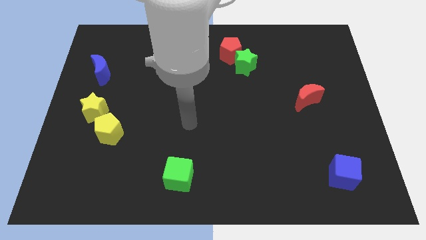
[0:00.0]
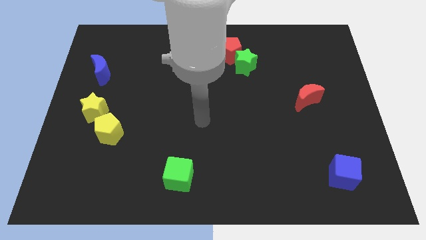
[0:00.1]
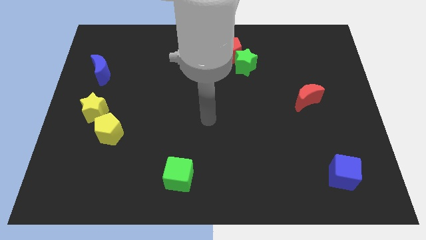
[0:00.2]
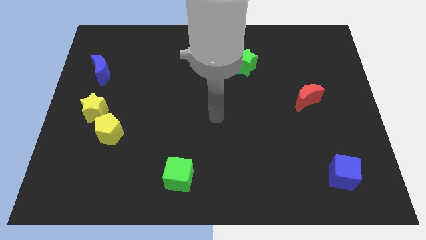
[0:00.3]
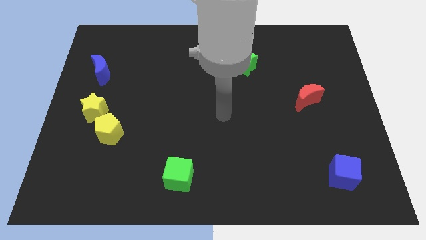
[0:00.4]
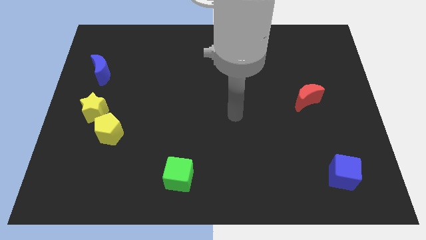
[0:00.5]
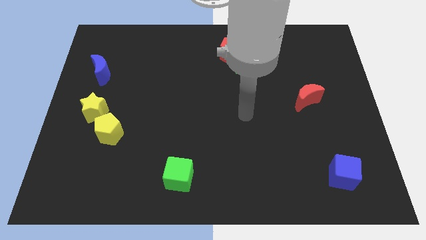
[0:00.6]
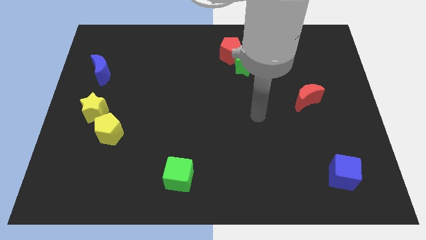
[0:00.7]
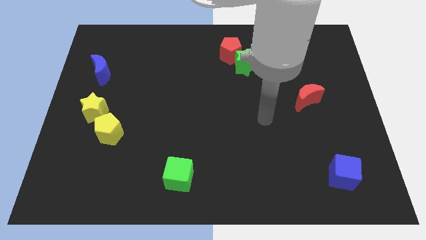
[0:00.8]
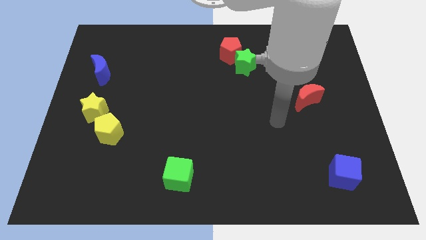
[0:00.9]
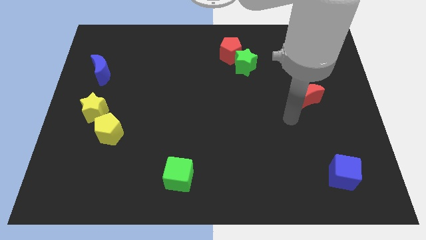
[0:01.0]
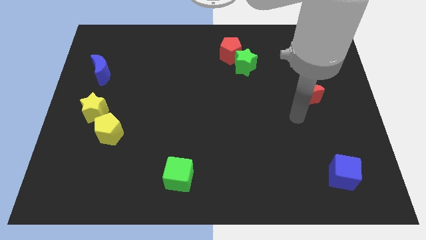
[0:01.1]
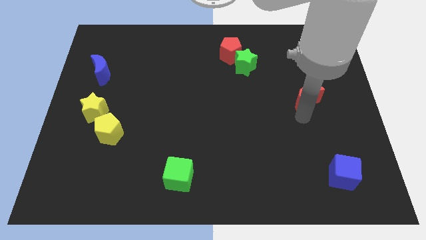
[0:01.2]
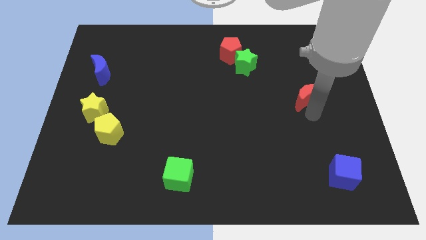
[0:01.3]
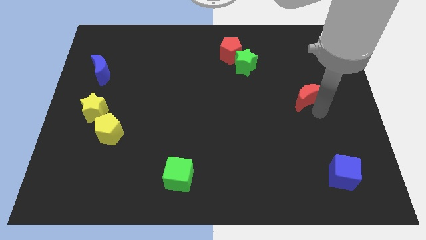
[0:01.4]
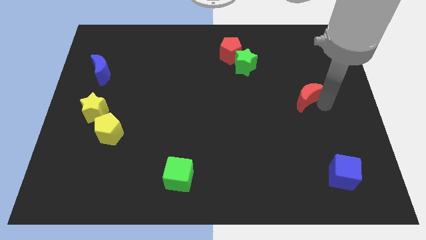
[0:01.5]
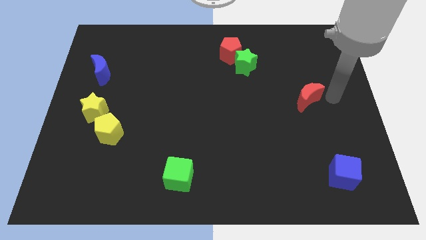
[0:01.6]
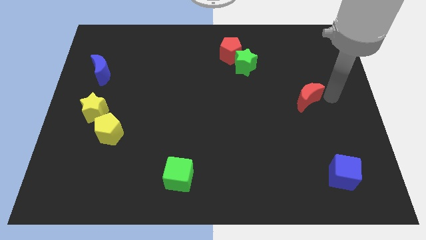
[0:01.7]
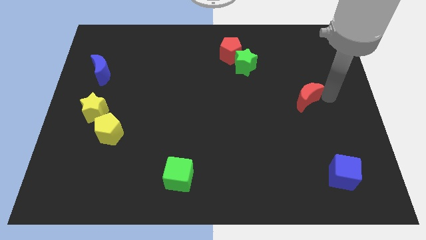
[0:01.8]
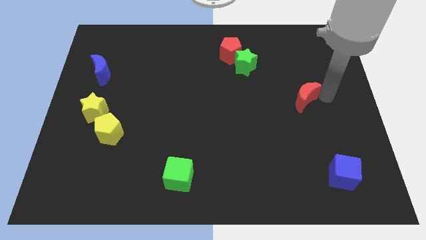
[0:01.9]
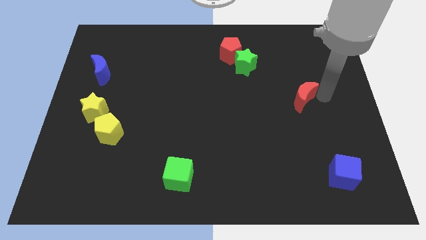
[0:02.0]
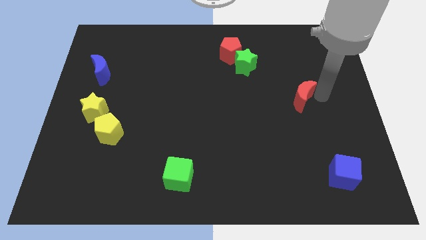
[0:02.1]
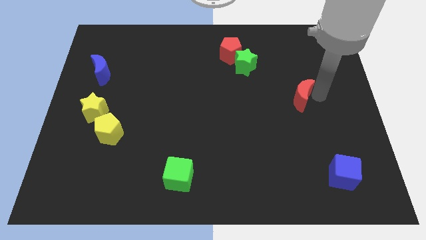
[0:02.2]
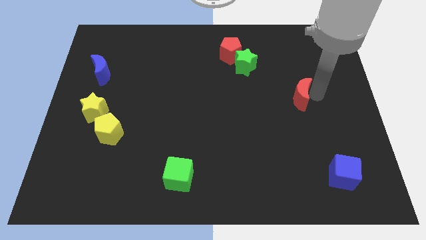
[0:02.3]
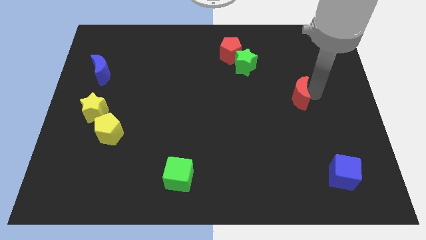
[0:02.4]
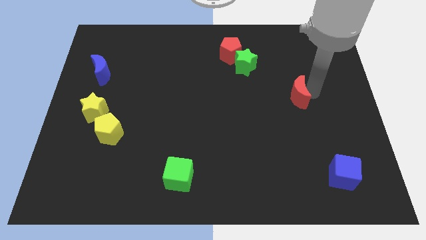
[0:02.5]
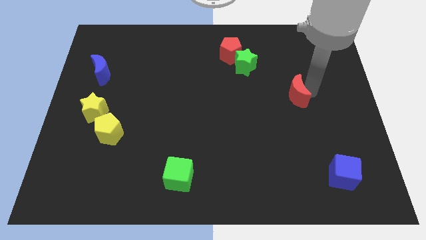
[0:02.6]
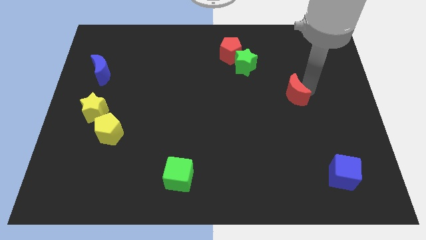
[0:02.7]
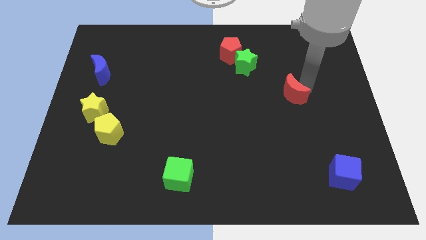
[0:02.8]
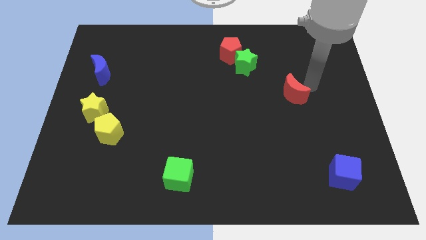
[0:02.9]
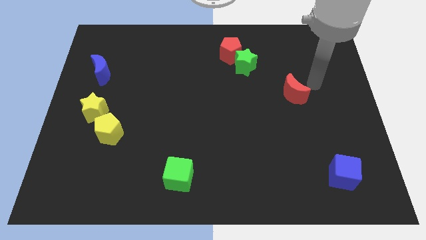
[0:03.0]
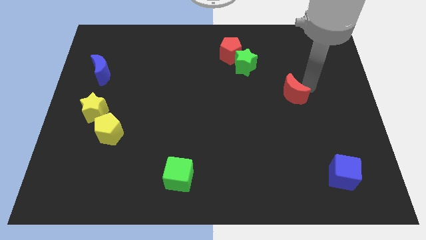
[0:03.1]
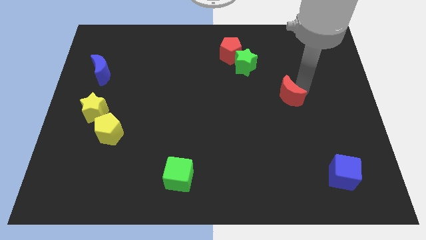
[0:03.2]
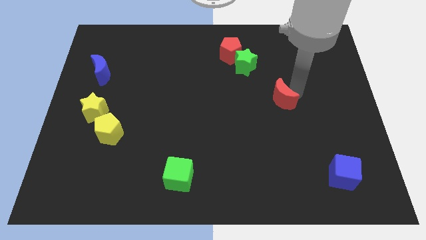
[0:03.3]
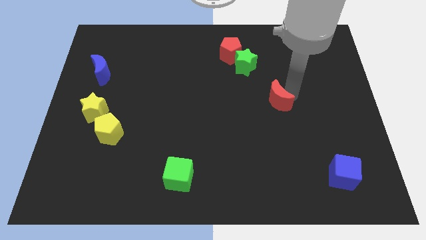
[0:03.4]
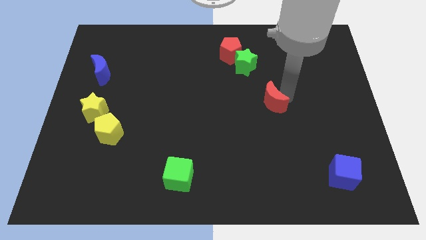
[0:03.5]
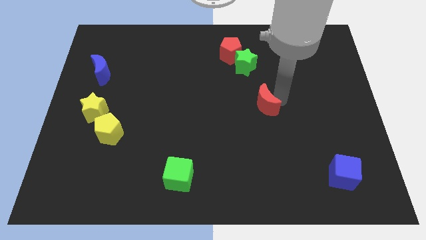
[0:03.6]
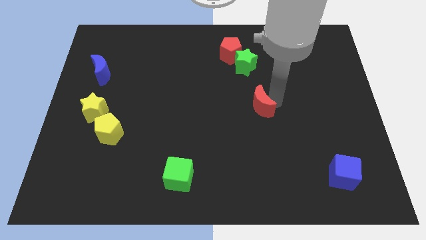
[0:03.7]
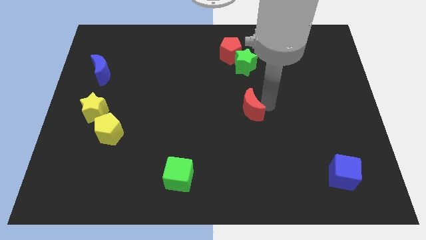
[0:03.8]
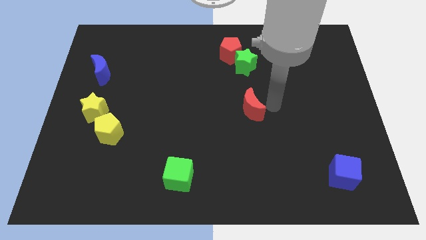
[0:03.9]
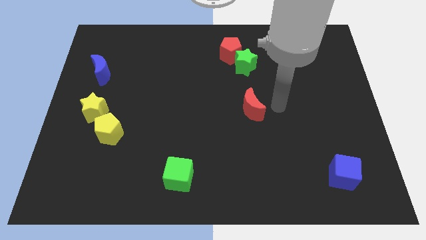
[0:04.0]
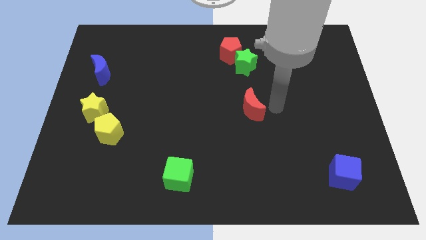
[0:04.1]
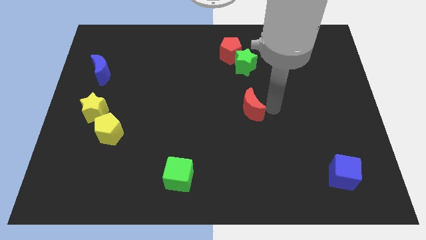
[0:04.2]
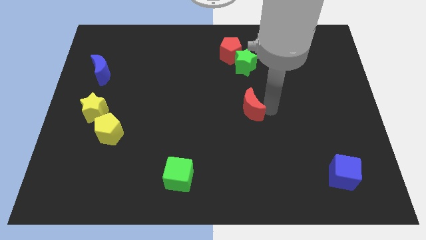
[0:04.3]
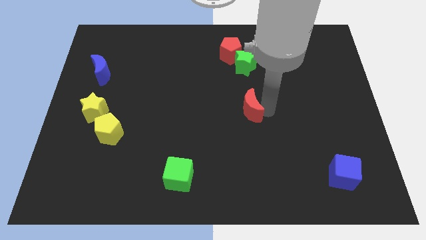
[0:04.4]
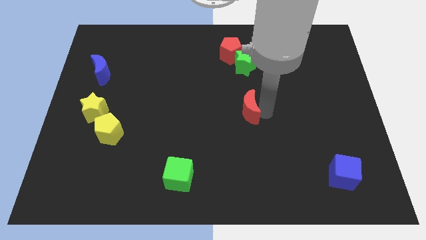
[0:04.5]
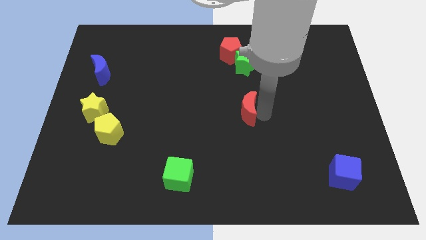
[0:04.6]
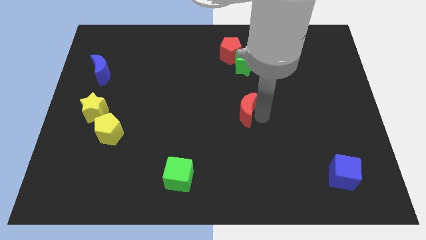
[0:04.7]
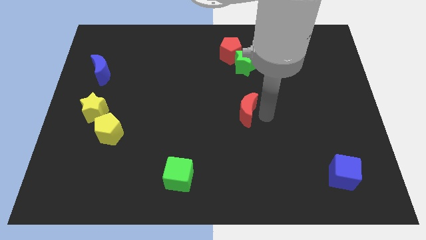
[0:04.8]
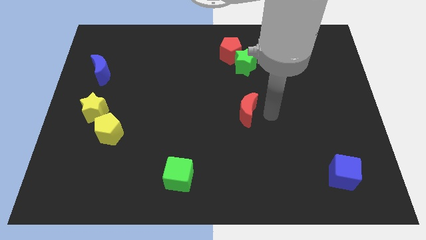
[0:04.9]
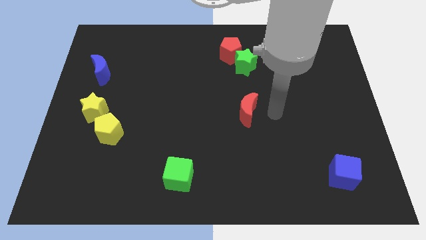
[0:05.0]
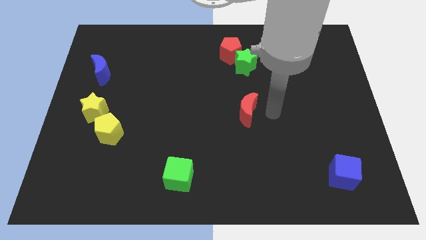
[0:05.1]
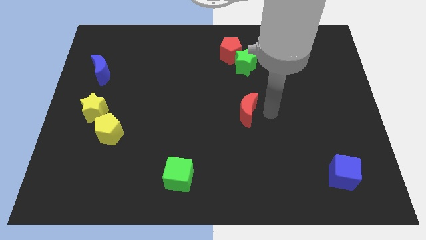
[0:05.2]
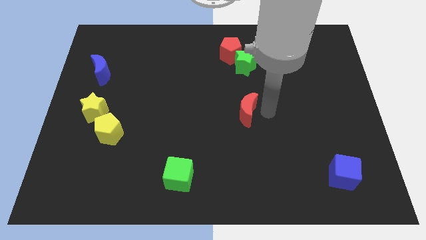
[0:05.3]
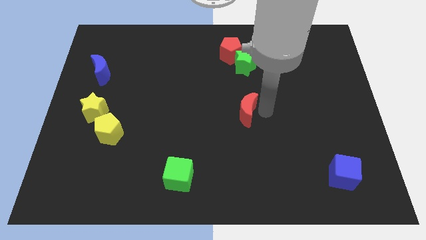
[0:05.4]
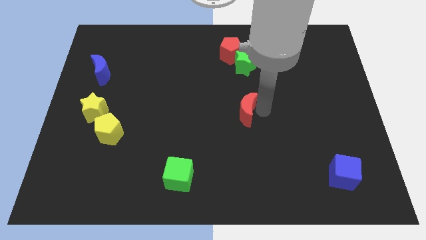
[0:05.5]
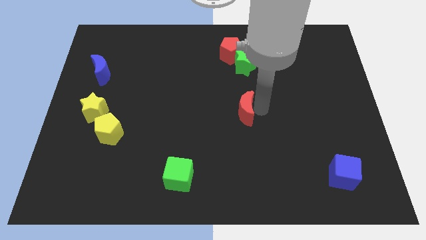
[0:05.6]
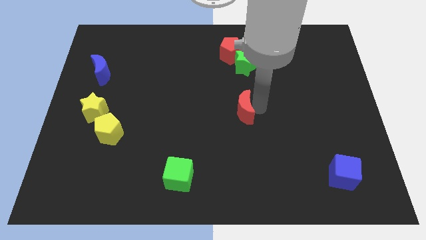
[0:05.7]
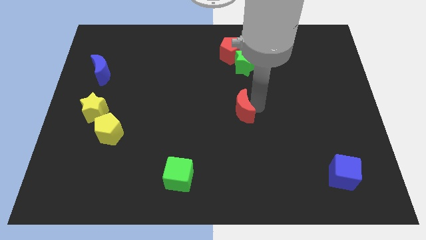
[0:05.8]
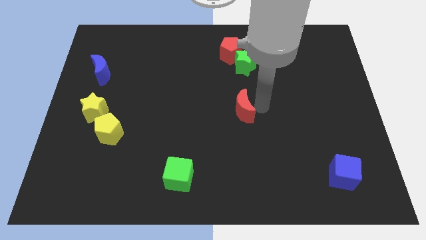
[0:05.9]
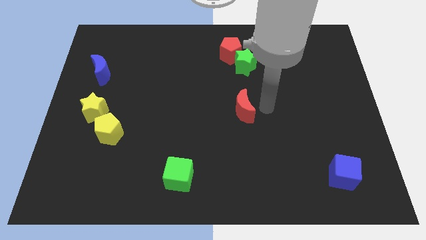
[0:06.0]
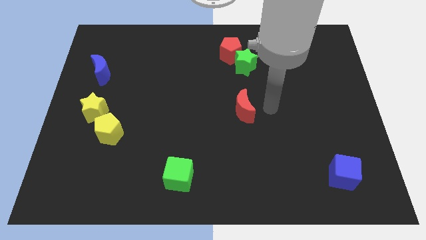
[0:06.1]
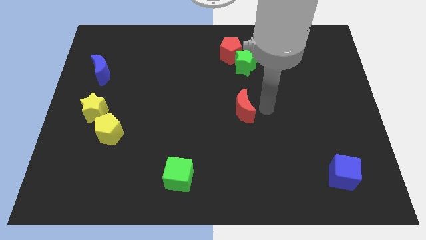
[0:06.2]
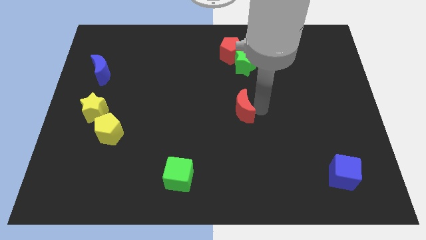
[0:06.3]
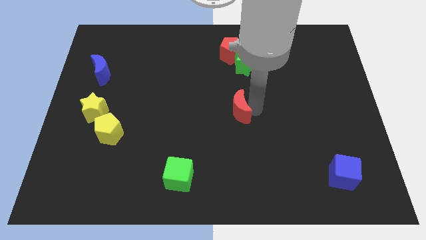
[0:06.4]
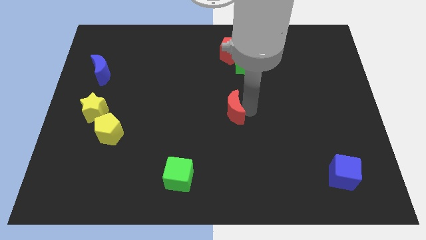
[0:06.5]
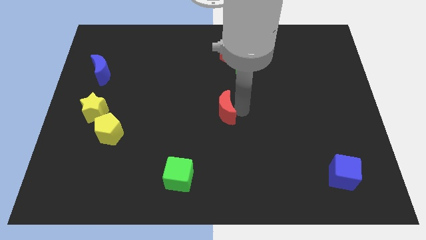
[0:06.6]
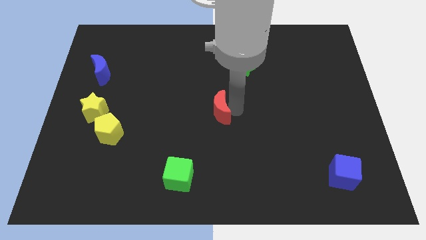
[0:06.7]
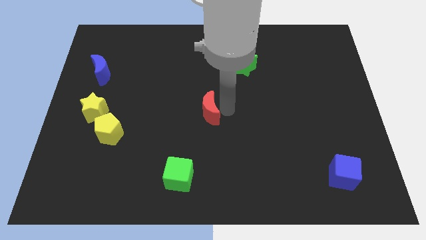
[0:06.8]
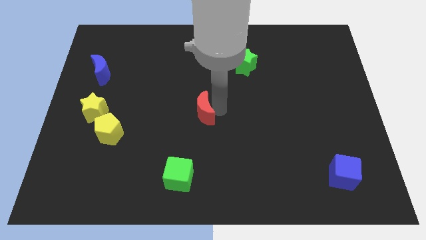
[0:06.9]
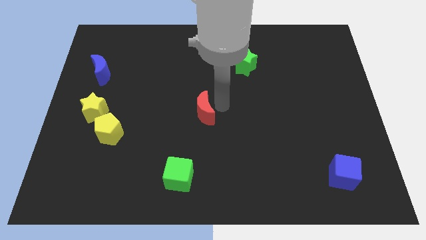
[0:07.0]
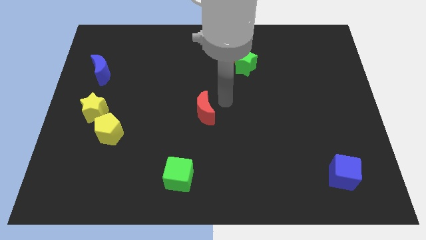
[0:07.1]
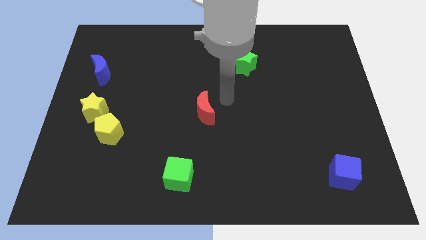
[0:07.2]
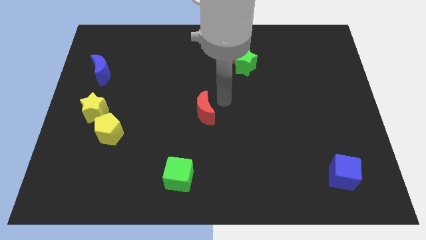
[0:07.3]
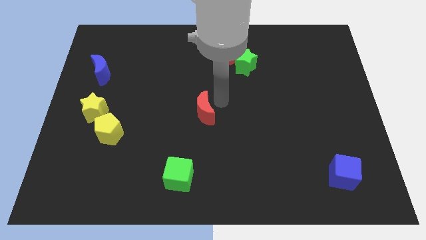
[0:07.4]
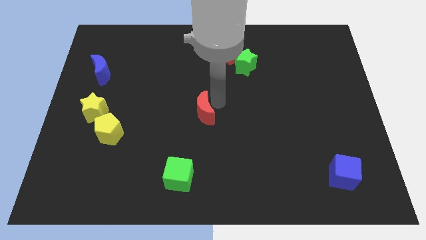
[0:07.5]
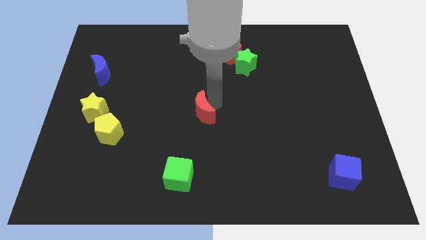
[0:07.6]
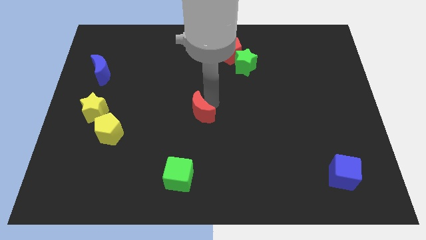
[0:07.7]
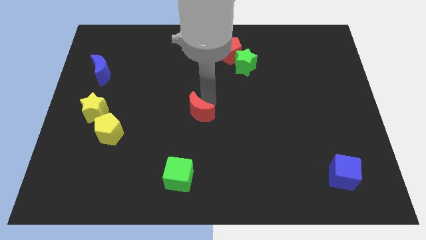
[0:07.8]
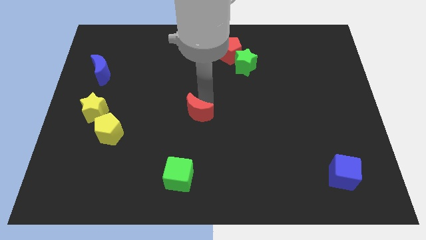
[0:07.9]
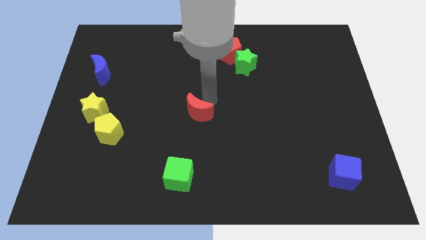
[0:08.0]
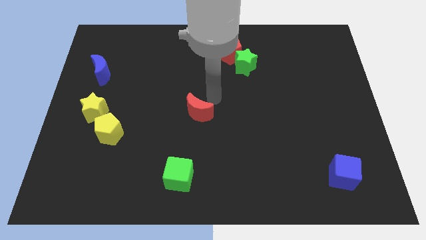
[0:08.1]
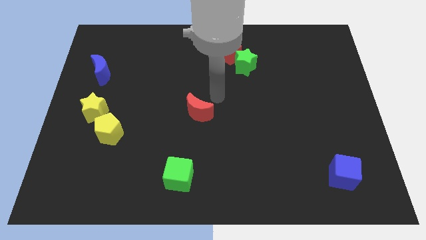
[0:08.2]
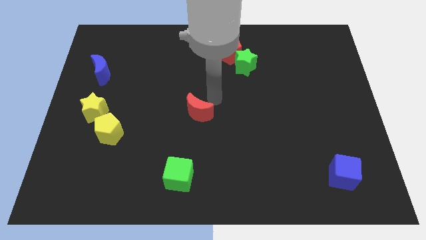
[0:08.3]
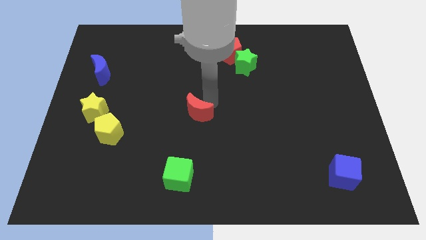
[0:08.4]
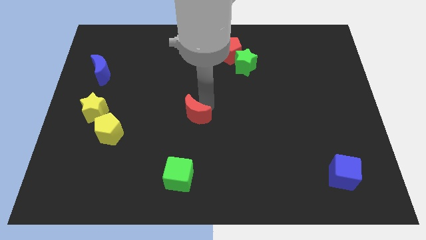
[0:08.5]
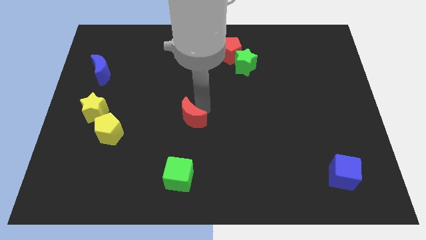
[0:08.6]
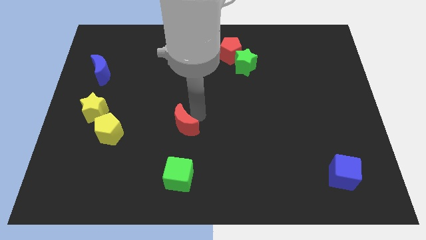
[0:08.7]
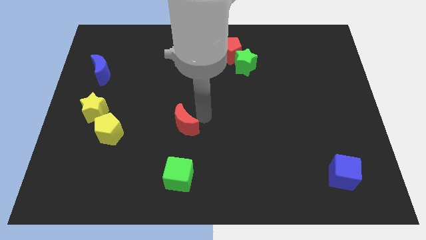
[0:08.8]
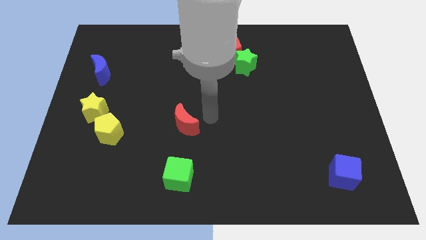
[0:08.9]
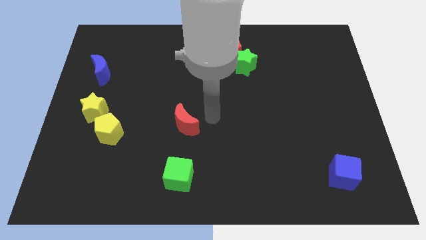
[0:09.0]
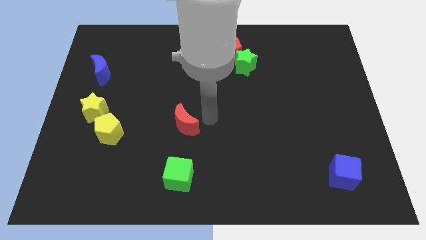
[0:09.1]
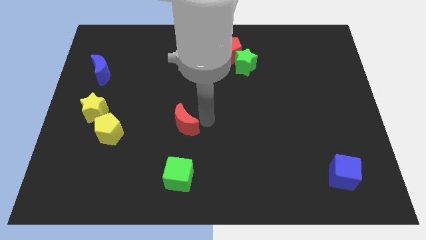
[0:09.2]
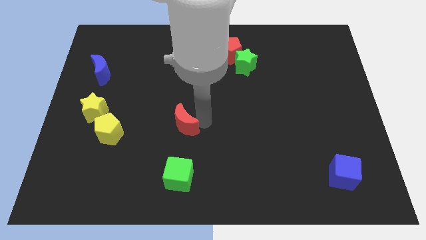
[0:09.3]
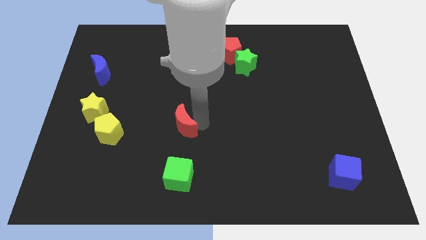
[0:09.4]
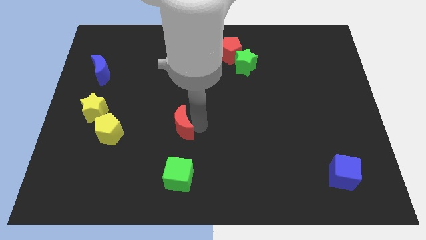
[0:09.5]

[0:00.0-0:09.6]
push the red moon to the right of the yellow pentagon
